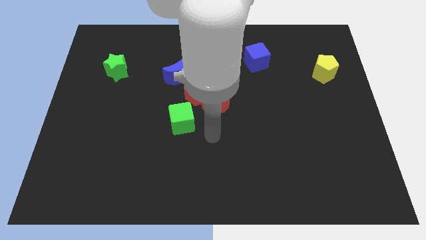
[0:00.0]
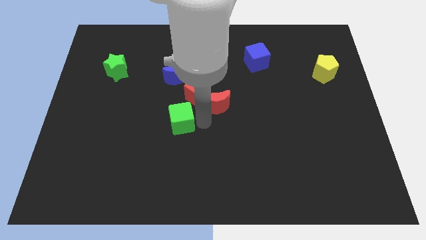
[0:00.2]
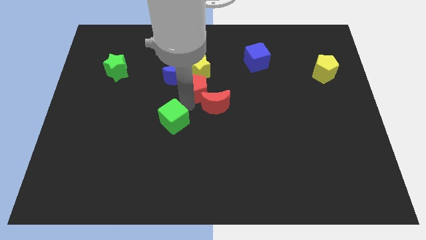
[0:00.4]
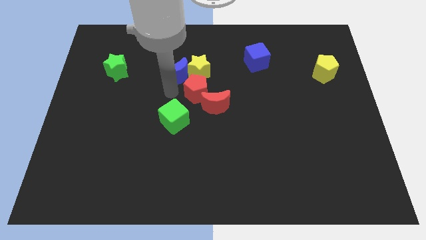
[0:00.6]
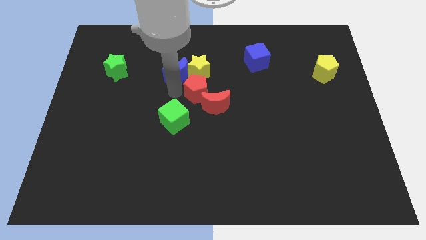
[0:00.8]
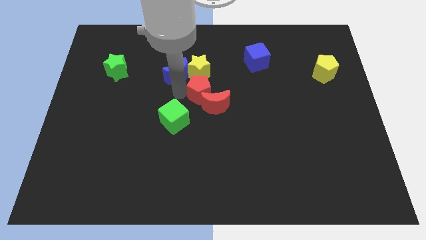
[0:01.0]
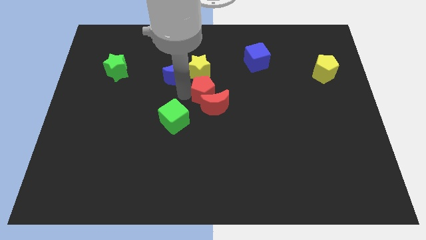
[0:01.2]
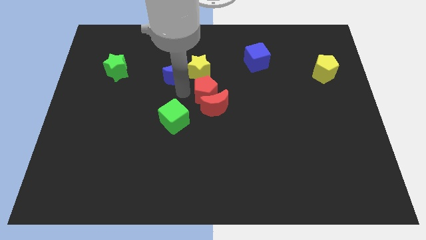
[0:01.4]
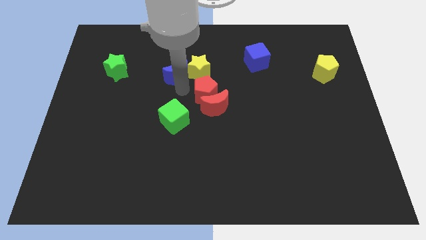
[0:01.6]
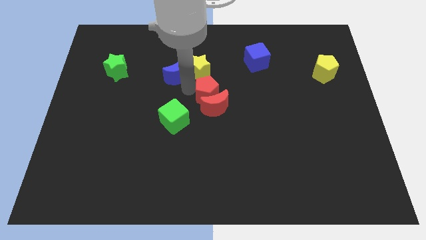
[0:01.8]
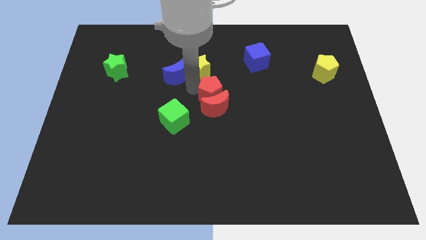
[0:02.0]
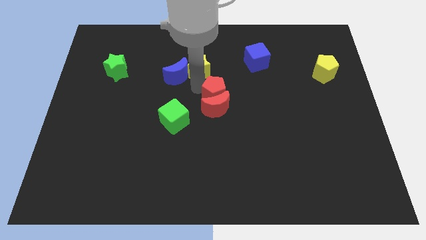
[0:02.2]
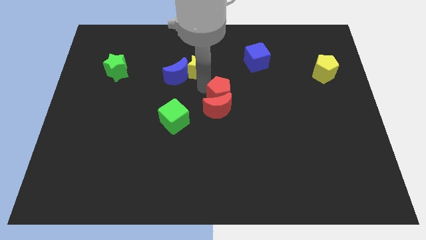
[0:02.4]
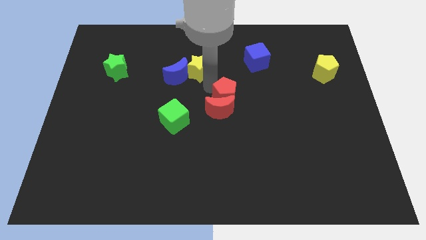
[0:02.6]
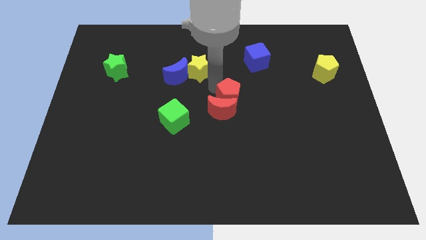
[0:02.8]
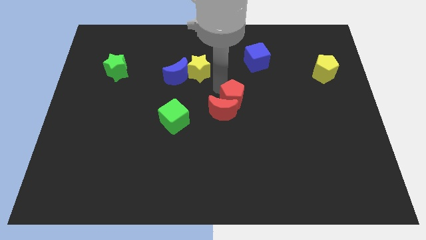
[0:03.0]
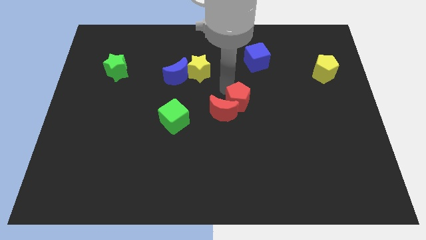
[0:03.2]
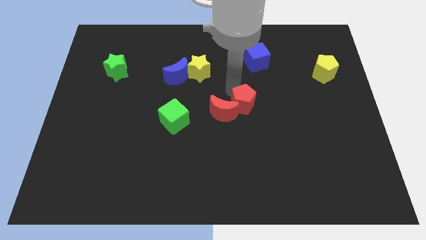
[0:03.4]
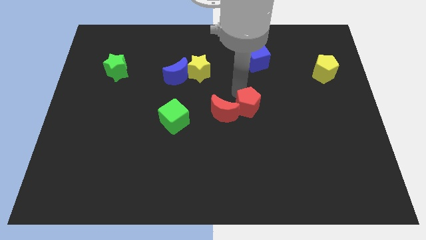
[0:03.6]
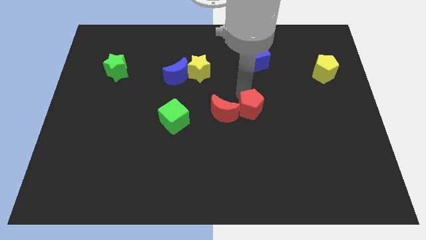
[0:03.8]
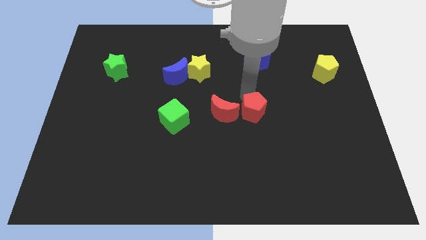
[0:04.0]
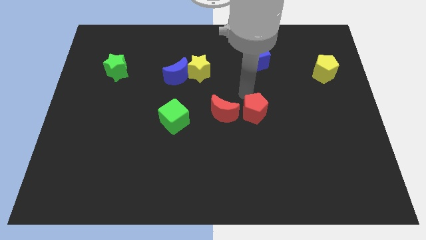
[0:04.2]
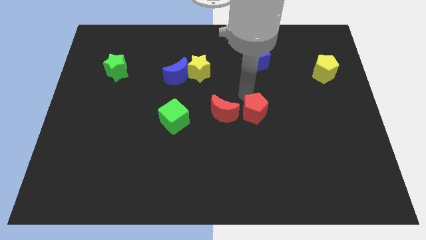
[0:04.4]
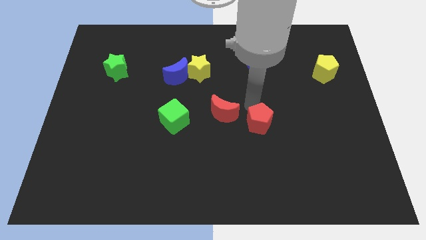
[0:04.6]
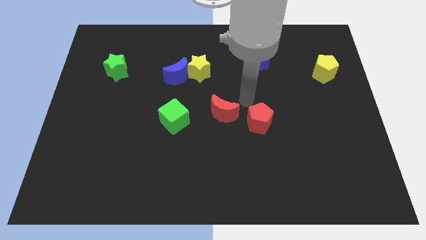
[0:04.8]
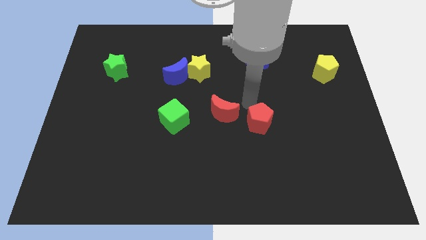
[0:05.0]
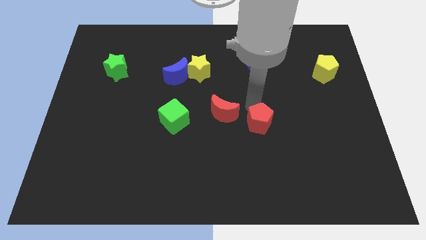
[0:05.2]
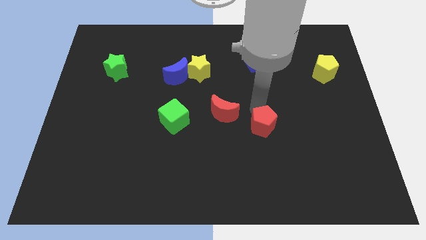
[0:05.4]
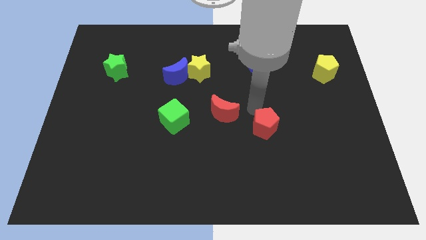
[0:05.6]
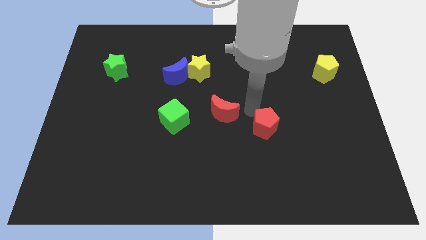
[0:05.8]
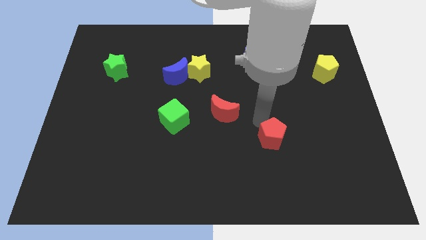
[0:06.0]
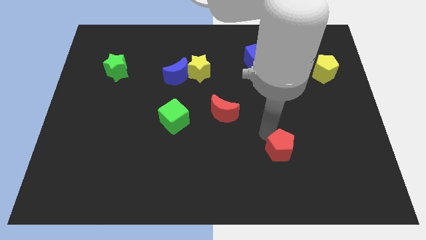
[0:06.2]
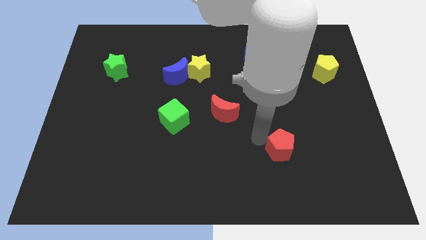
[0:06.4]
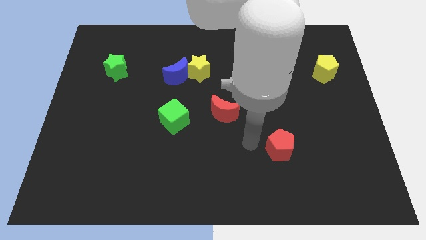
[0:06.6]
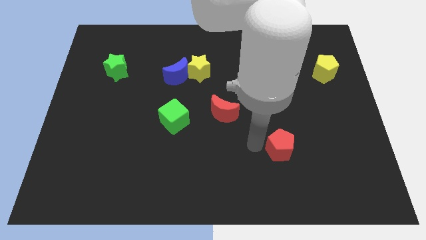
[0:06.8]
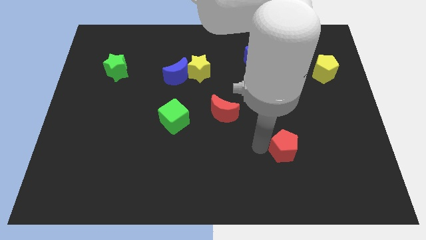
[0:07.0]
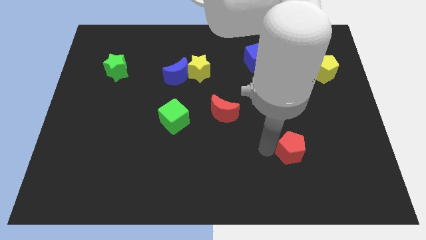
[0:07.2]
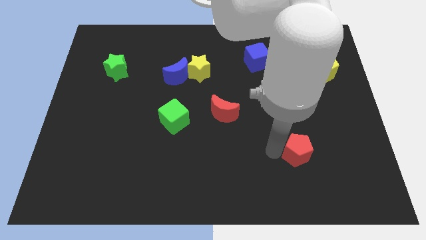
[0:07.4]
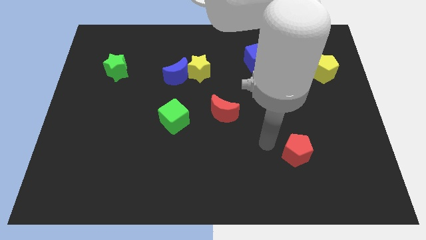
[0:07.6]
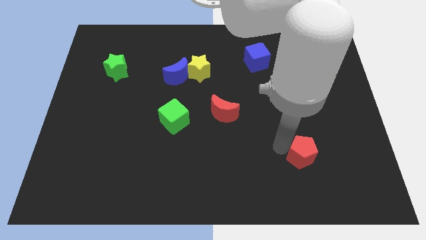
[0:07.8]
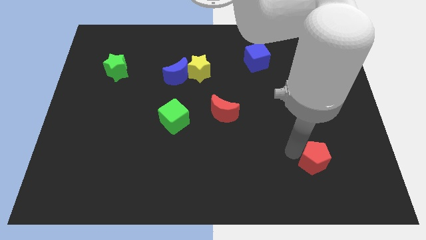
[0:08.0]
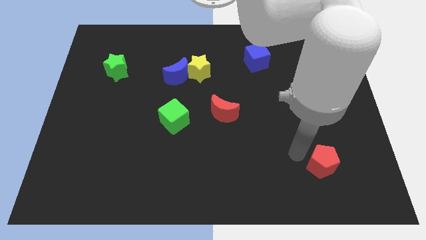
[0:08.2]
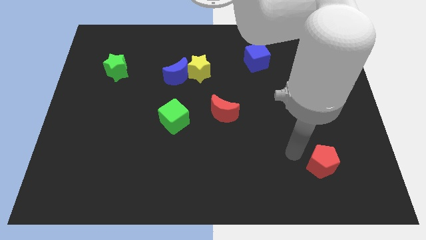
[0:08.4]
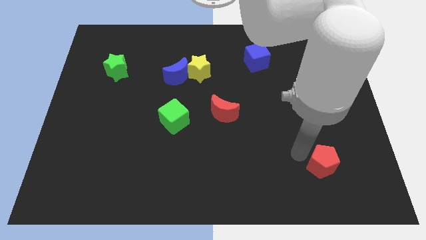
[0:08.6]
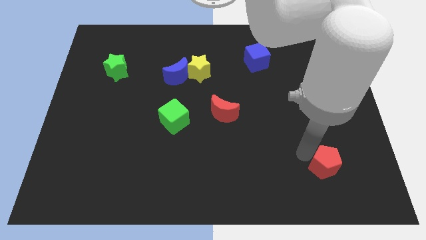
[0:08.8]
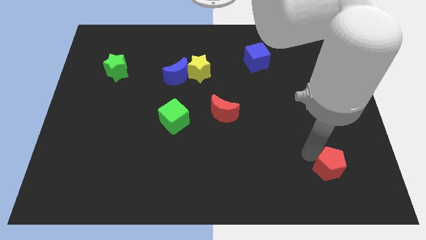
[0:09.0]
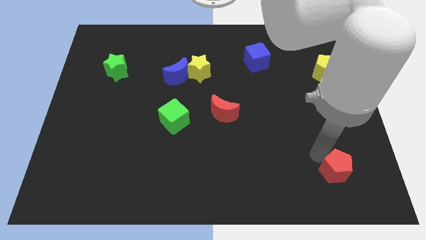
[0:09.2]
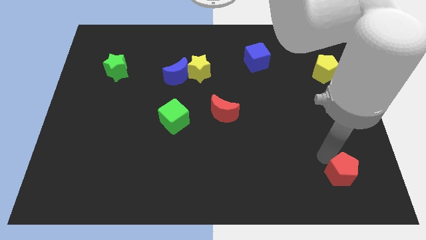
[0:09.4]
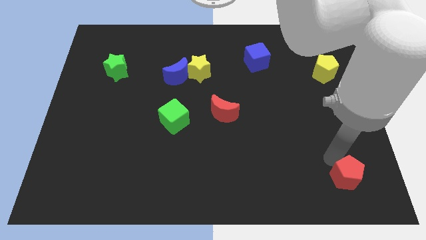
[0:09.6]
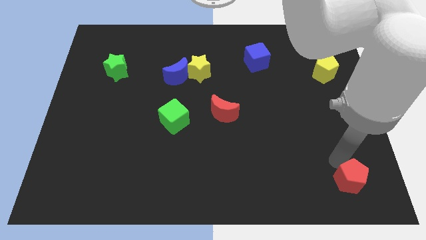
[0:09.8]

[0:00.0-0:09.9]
put the red pentagon to the bottom right of the board

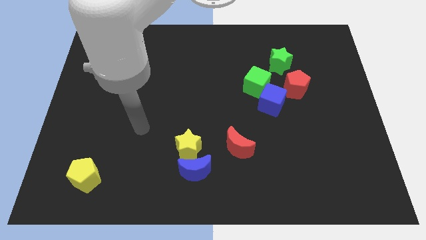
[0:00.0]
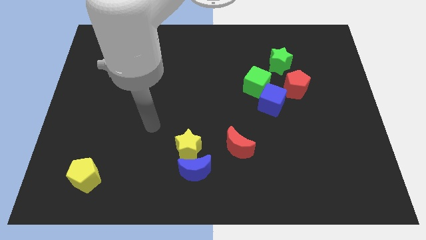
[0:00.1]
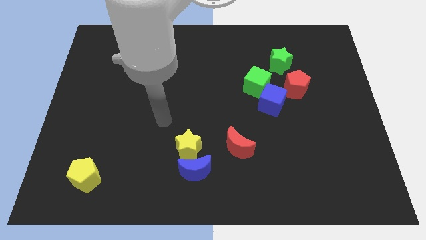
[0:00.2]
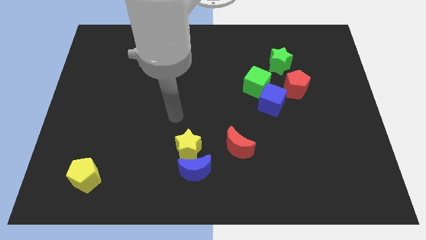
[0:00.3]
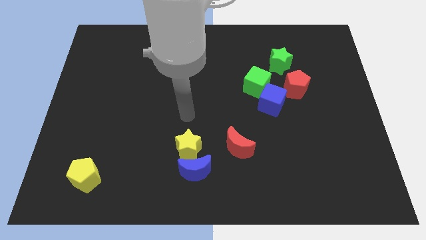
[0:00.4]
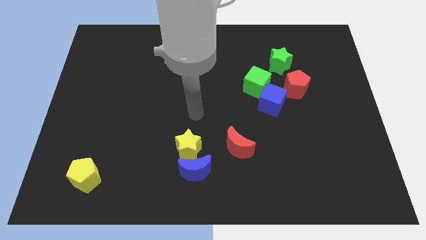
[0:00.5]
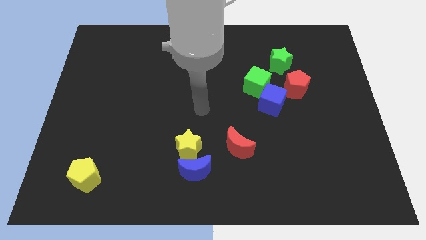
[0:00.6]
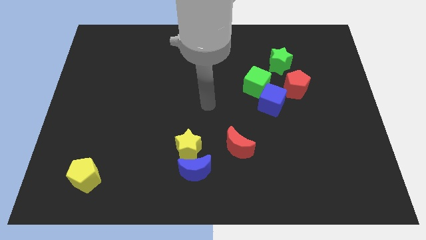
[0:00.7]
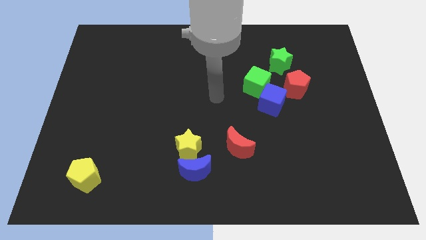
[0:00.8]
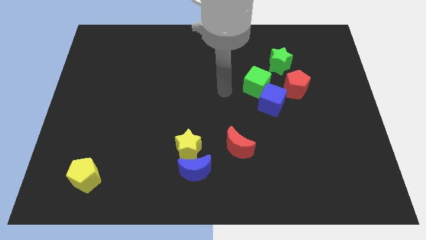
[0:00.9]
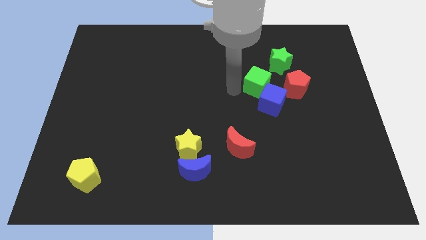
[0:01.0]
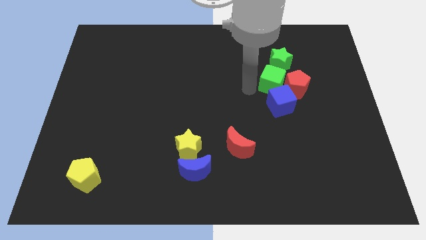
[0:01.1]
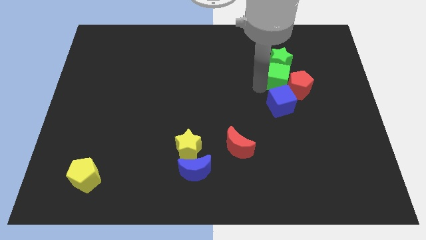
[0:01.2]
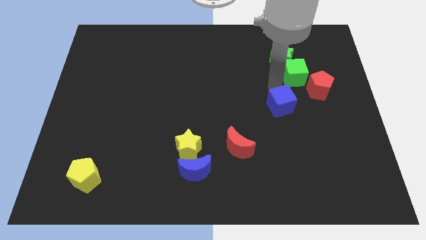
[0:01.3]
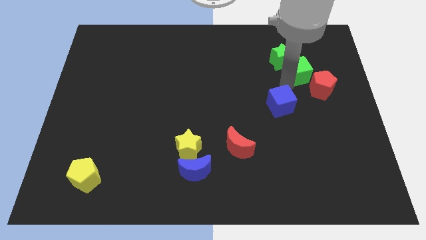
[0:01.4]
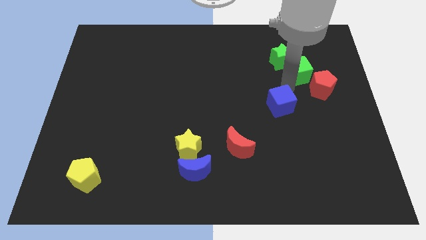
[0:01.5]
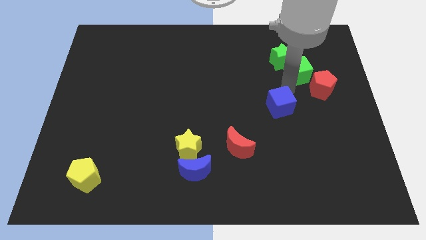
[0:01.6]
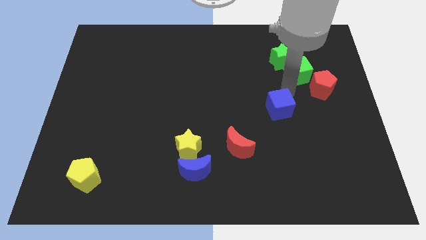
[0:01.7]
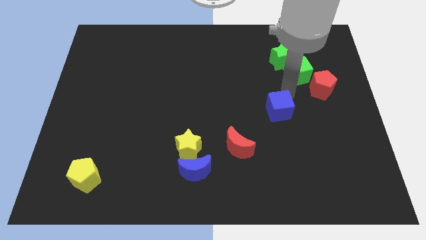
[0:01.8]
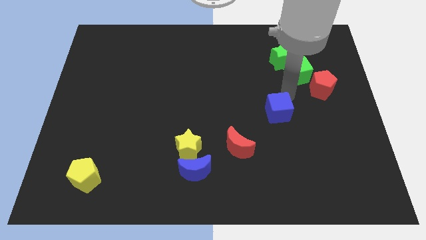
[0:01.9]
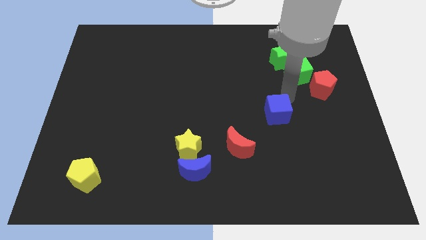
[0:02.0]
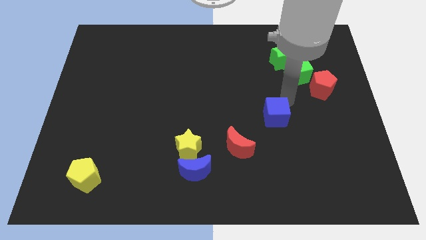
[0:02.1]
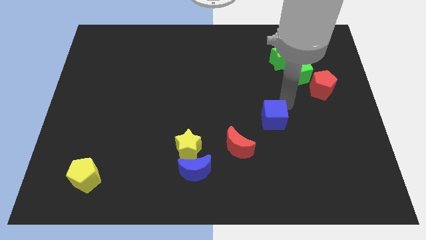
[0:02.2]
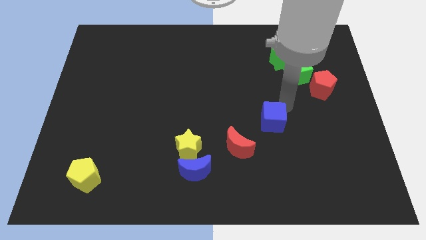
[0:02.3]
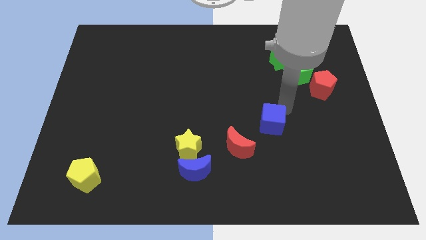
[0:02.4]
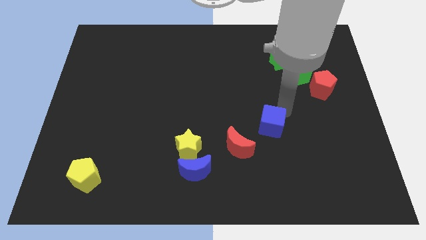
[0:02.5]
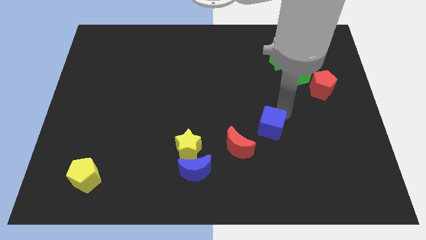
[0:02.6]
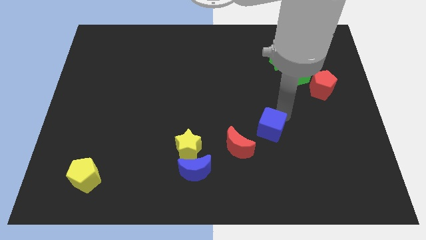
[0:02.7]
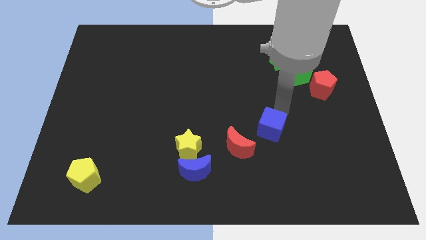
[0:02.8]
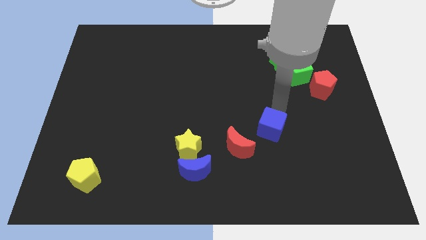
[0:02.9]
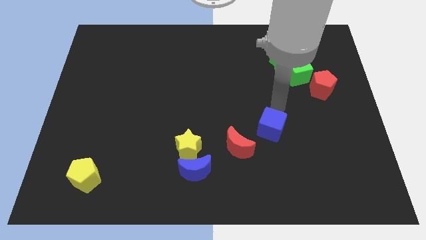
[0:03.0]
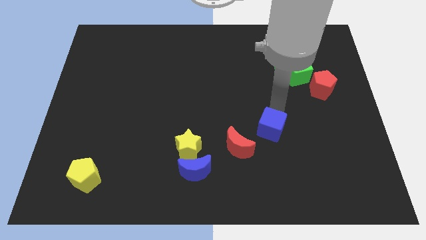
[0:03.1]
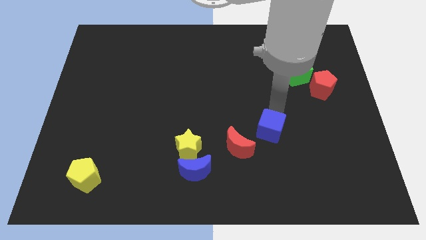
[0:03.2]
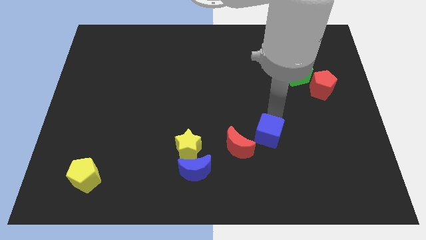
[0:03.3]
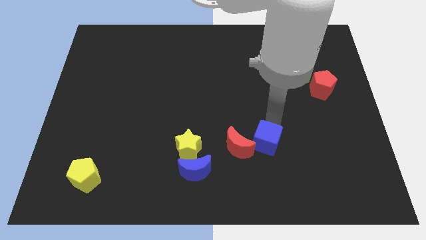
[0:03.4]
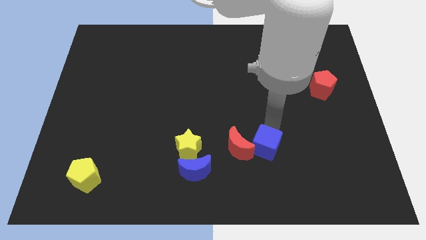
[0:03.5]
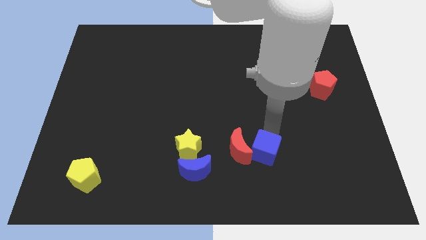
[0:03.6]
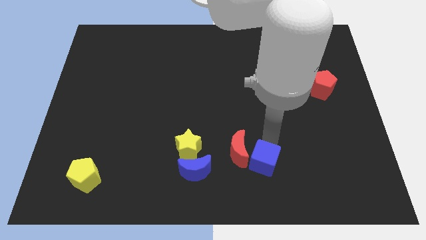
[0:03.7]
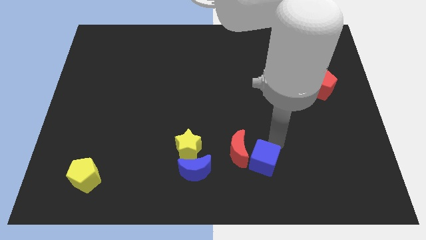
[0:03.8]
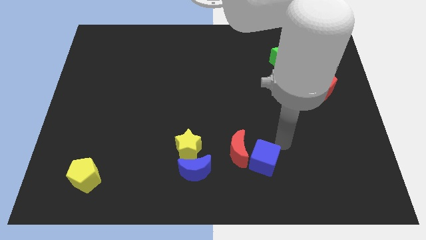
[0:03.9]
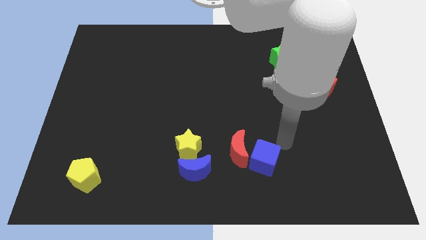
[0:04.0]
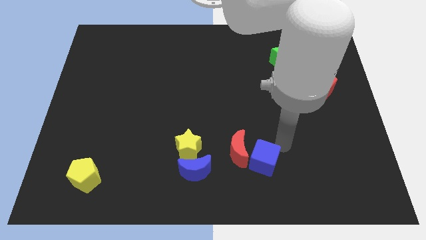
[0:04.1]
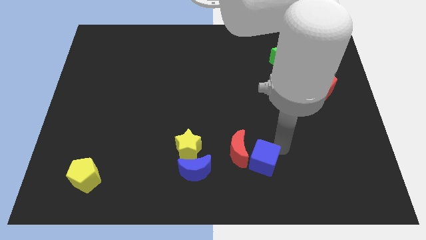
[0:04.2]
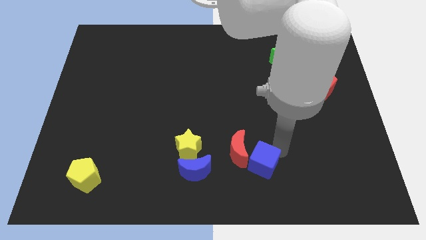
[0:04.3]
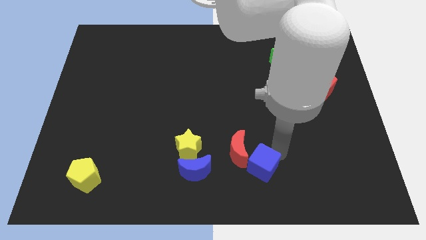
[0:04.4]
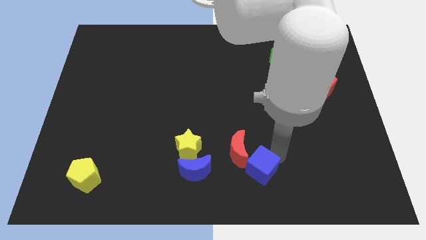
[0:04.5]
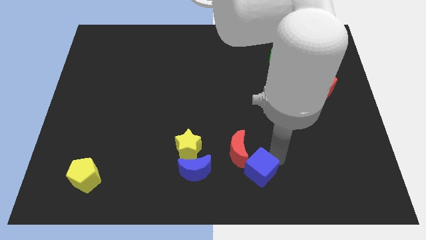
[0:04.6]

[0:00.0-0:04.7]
put the blue cube to the bottom
